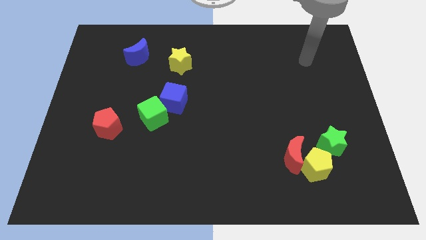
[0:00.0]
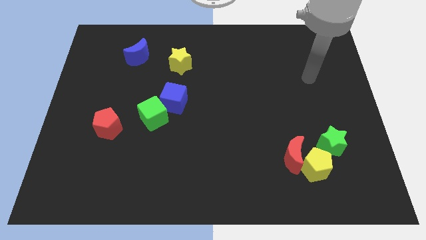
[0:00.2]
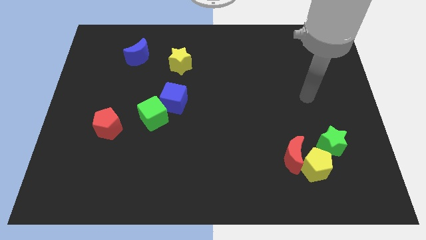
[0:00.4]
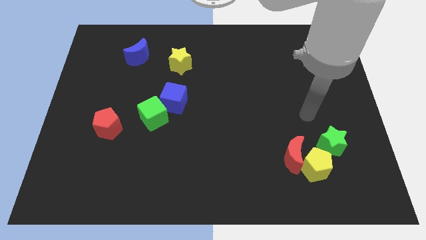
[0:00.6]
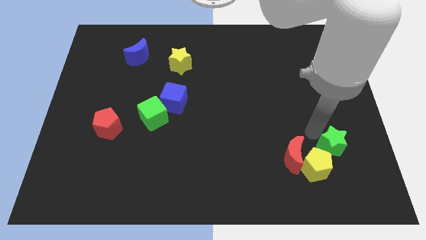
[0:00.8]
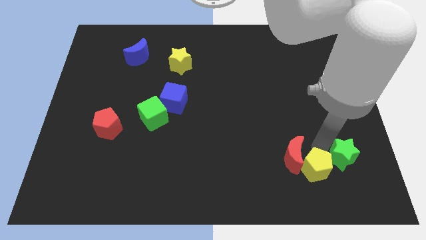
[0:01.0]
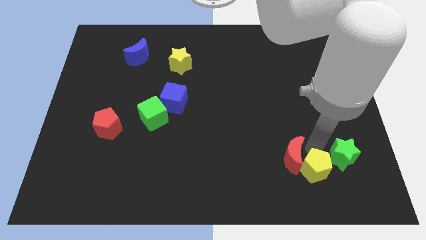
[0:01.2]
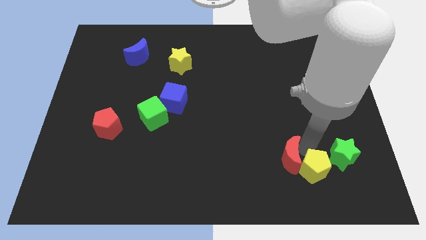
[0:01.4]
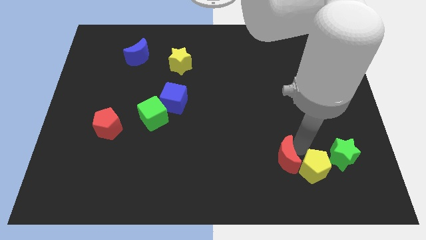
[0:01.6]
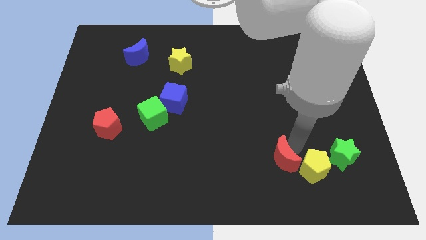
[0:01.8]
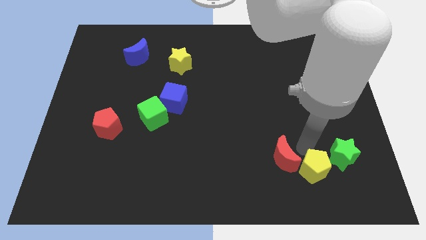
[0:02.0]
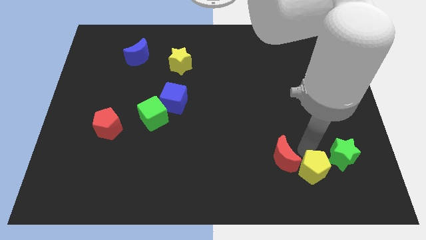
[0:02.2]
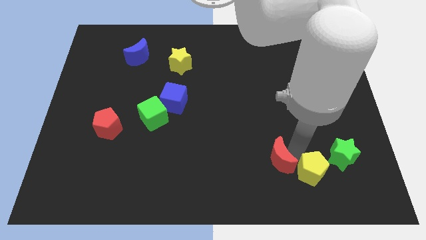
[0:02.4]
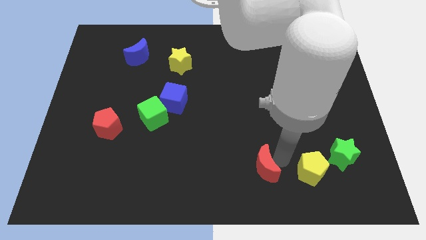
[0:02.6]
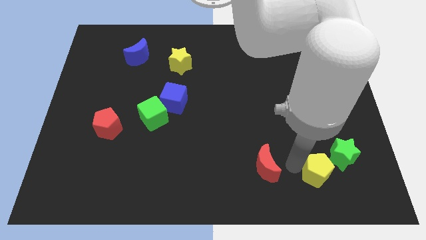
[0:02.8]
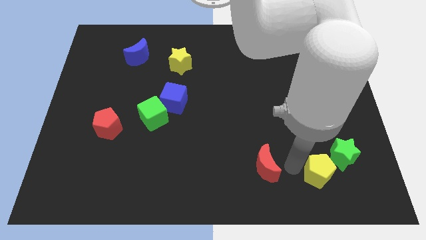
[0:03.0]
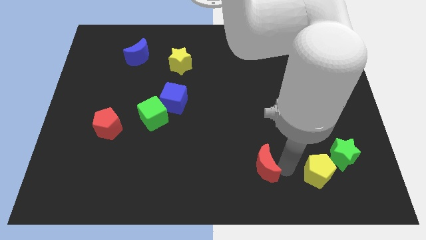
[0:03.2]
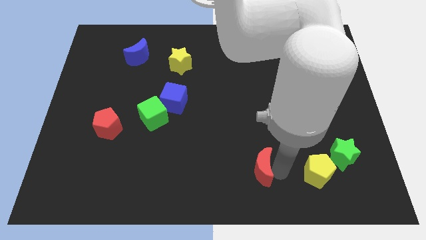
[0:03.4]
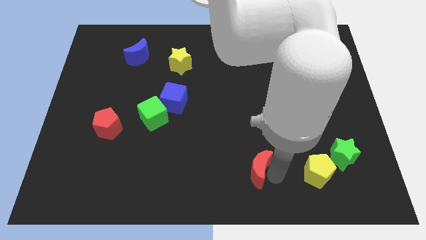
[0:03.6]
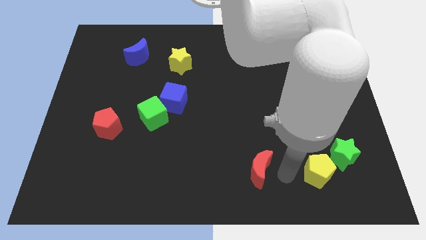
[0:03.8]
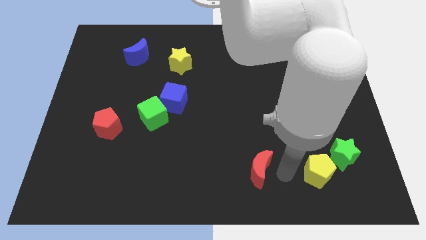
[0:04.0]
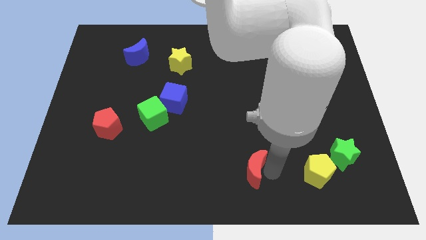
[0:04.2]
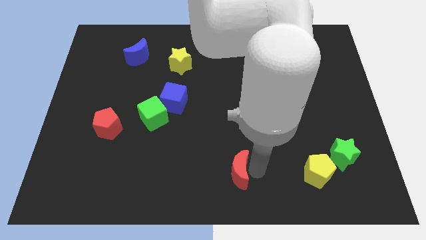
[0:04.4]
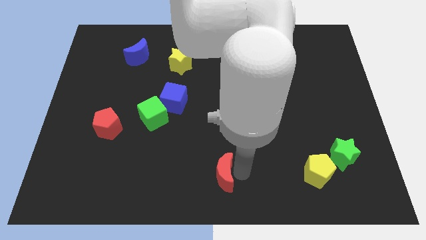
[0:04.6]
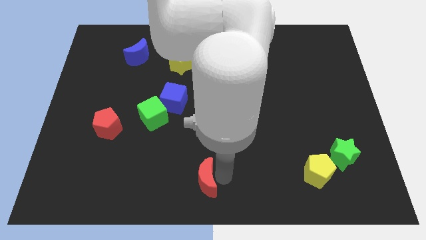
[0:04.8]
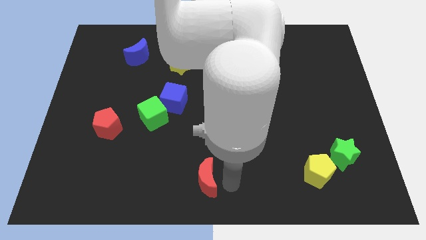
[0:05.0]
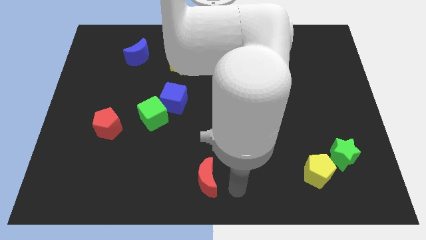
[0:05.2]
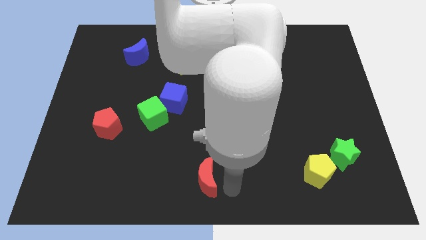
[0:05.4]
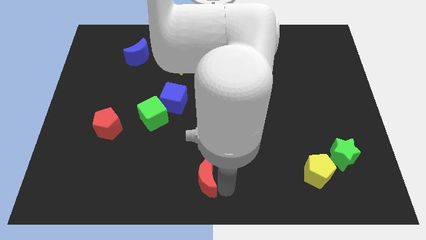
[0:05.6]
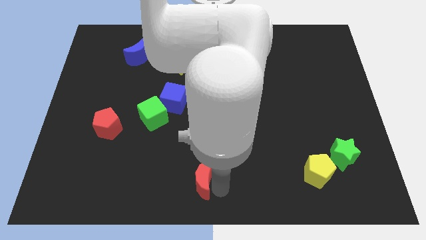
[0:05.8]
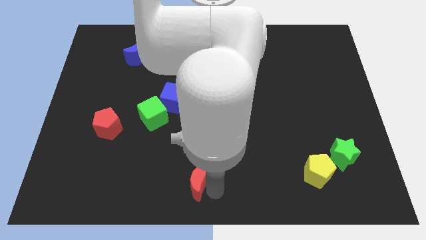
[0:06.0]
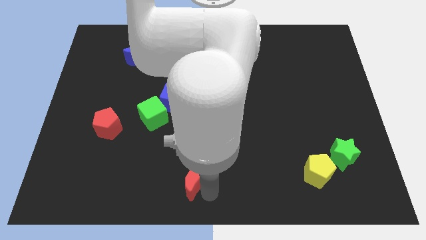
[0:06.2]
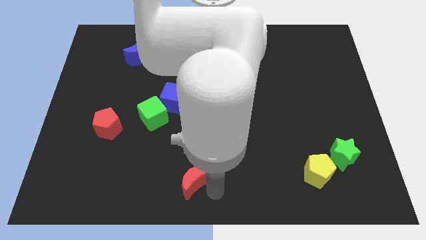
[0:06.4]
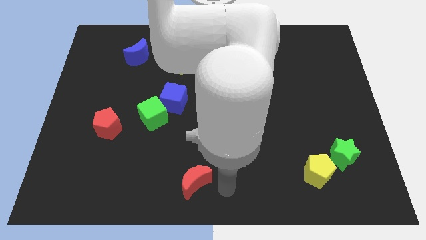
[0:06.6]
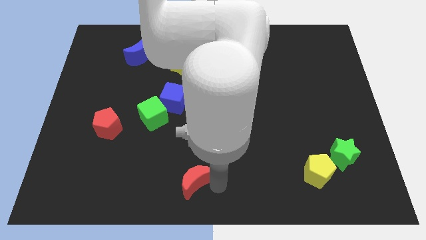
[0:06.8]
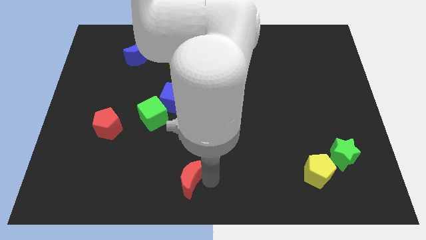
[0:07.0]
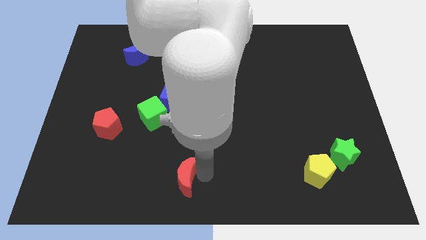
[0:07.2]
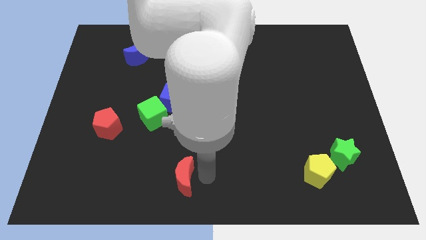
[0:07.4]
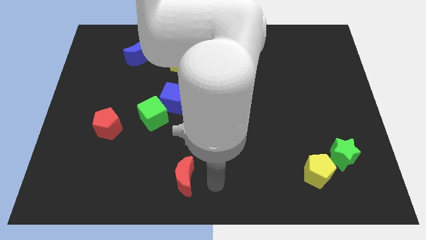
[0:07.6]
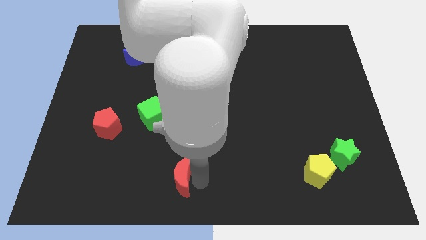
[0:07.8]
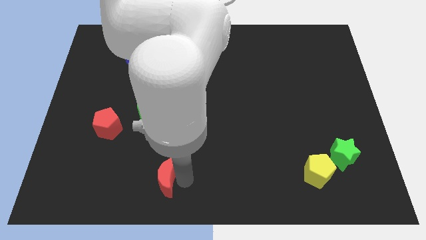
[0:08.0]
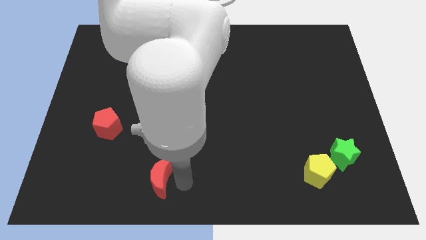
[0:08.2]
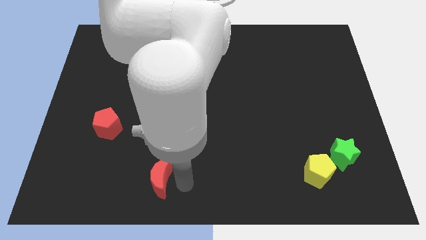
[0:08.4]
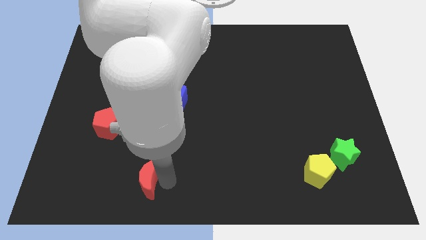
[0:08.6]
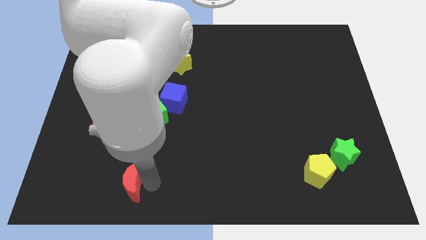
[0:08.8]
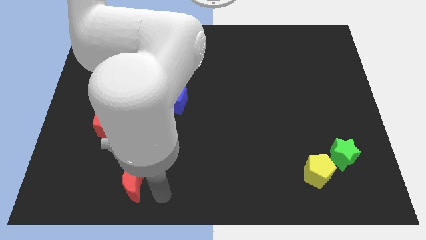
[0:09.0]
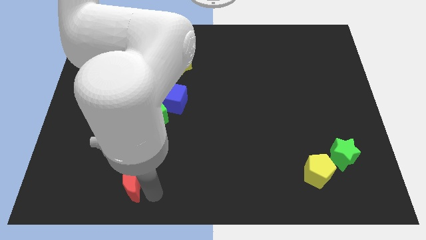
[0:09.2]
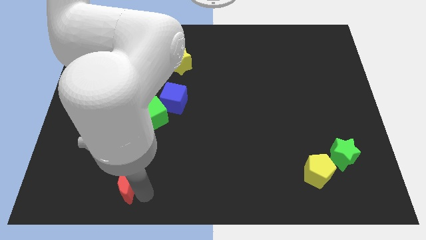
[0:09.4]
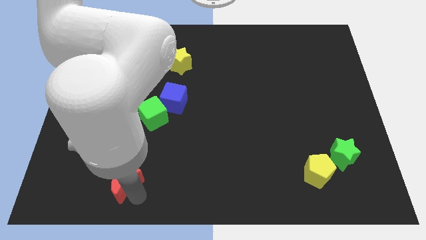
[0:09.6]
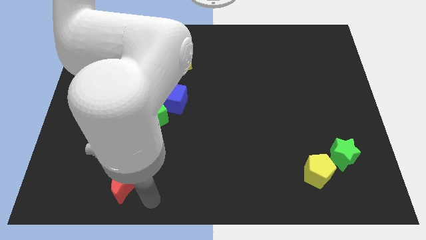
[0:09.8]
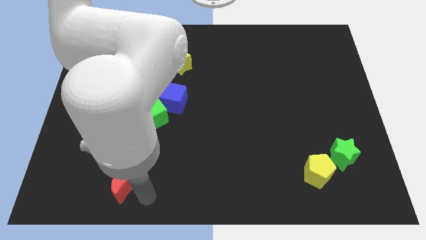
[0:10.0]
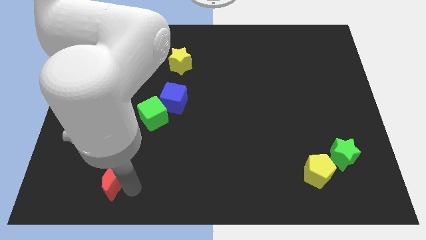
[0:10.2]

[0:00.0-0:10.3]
slide the red moon below the red pentagon

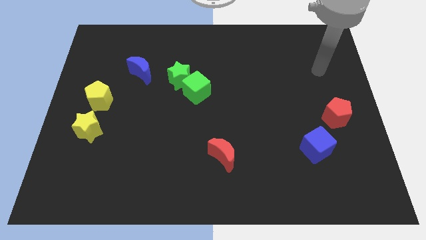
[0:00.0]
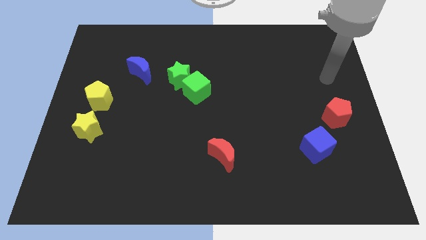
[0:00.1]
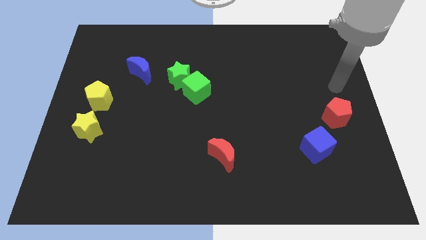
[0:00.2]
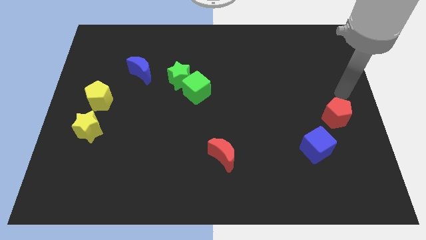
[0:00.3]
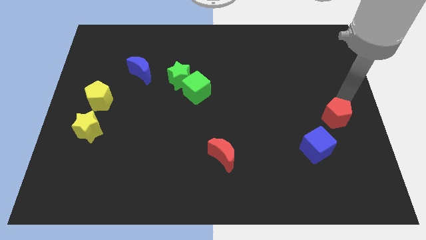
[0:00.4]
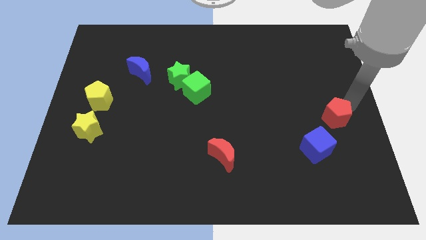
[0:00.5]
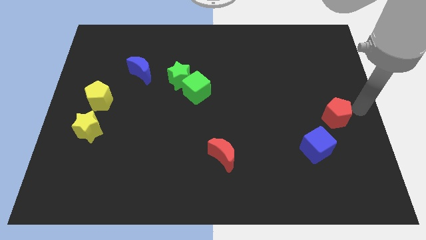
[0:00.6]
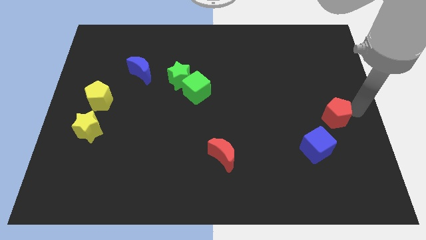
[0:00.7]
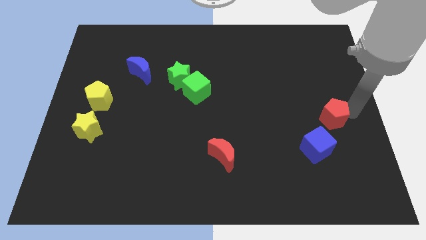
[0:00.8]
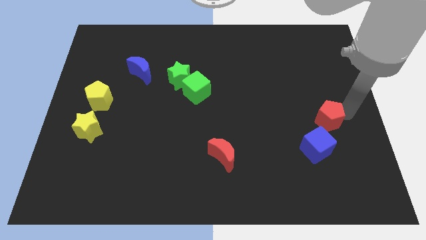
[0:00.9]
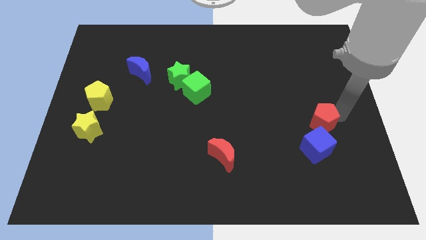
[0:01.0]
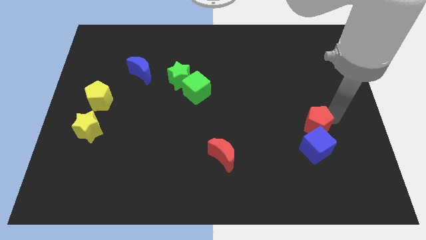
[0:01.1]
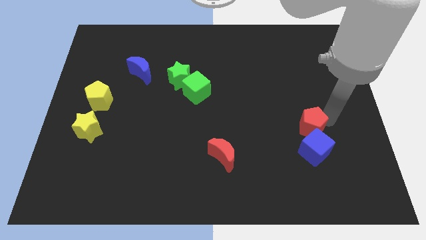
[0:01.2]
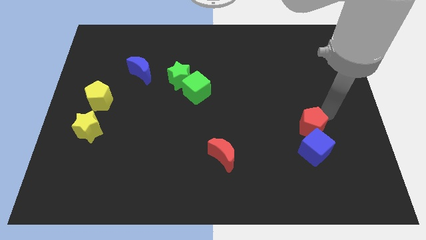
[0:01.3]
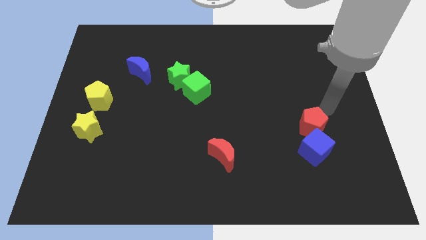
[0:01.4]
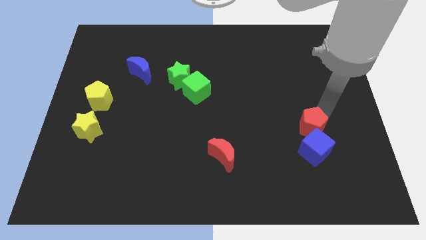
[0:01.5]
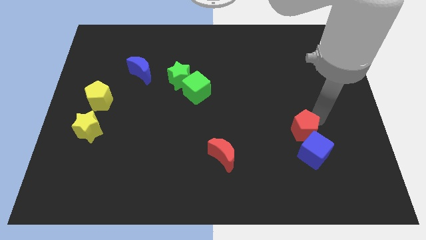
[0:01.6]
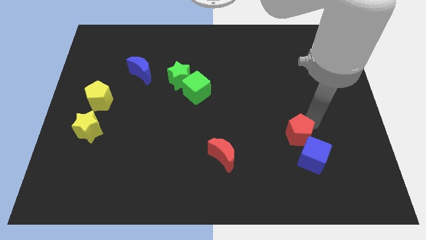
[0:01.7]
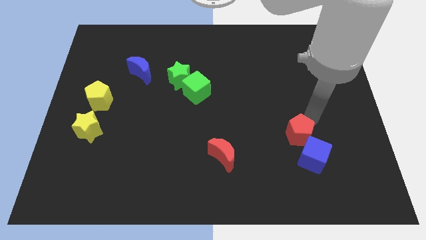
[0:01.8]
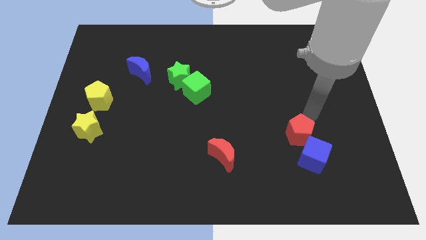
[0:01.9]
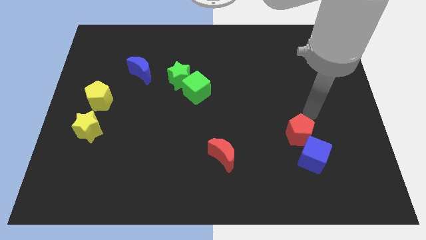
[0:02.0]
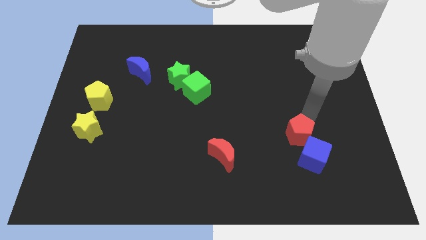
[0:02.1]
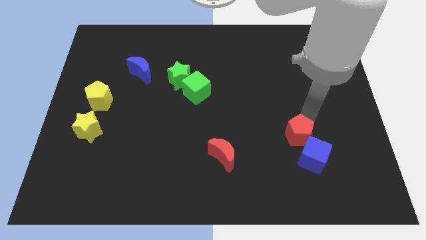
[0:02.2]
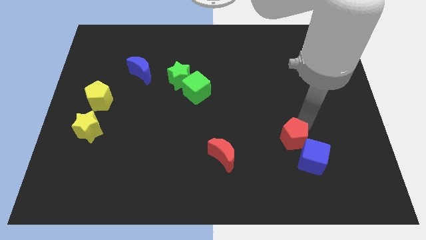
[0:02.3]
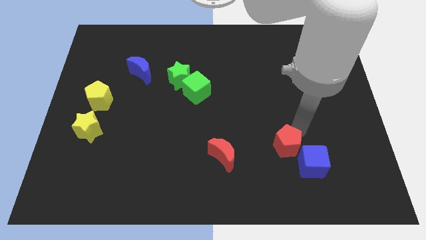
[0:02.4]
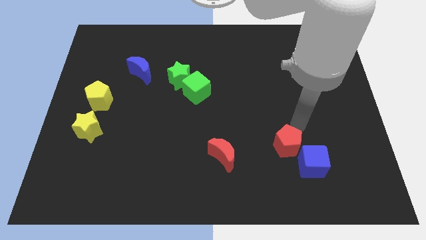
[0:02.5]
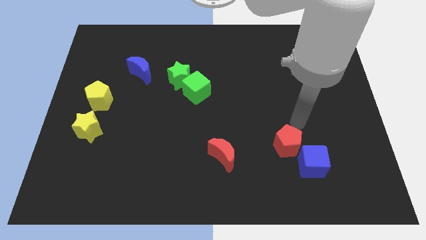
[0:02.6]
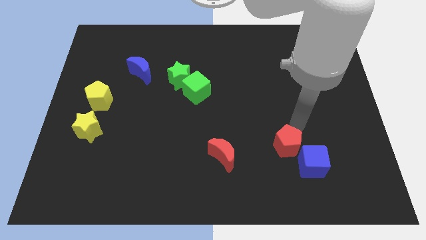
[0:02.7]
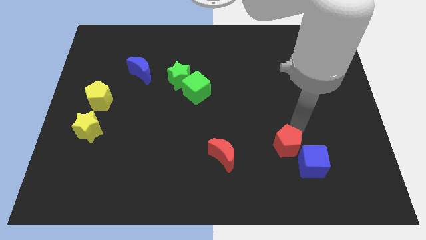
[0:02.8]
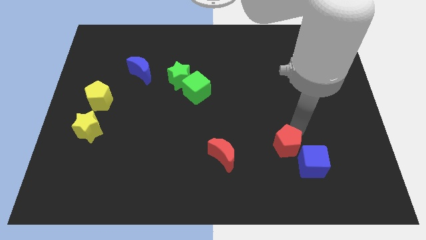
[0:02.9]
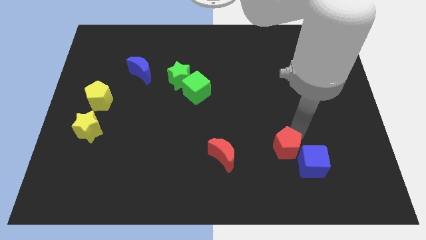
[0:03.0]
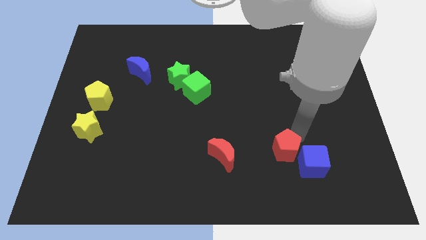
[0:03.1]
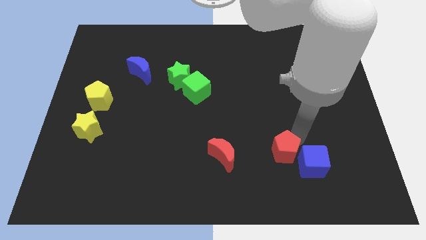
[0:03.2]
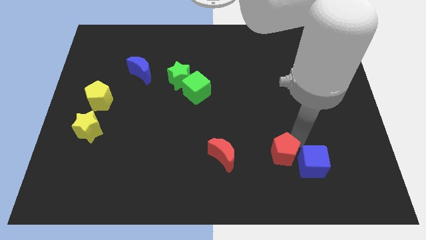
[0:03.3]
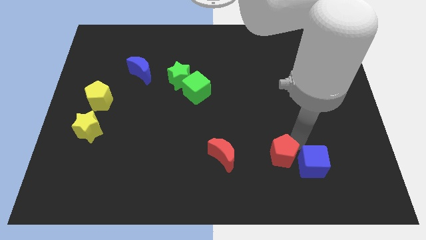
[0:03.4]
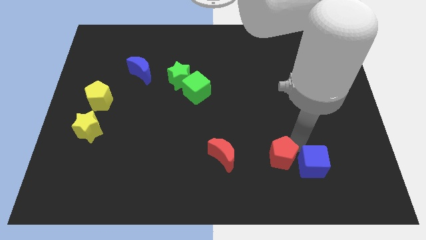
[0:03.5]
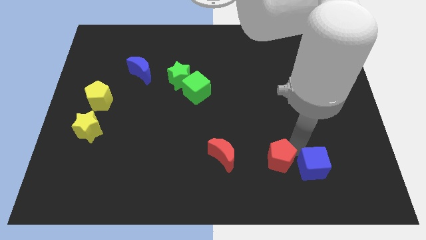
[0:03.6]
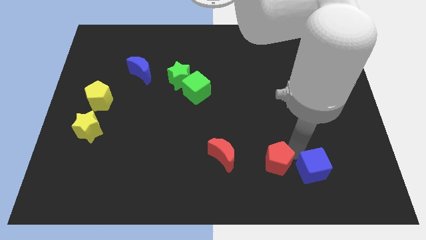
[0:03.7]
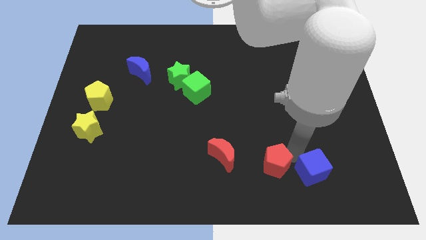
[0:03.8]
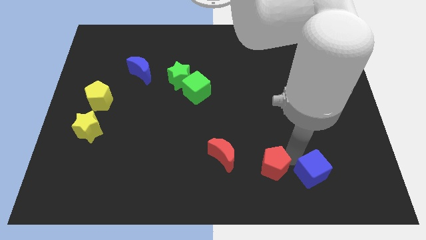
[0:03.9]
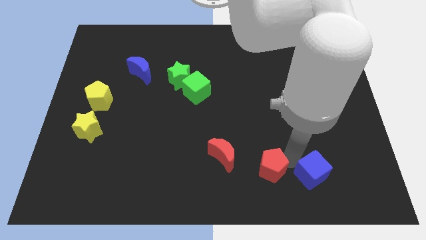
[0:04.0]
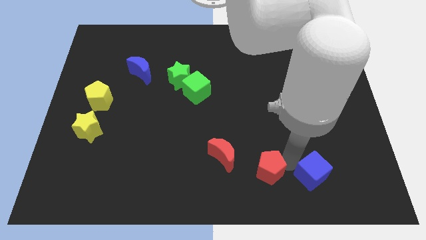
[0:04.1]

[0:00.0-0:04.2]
put the red pentagon to the bottom right of the red moon
